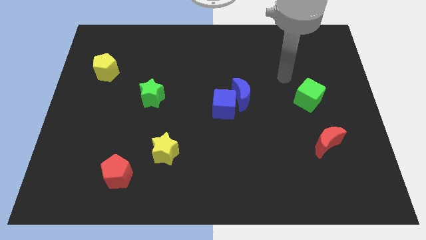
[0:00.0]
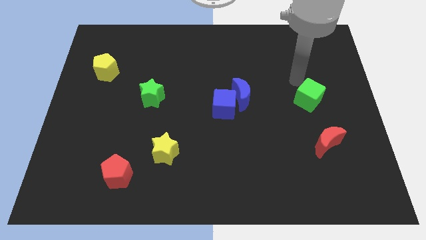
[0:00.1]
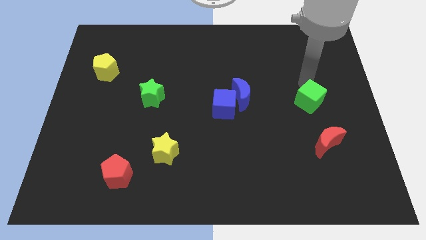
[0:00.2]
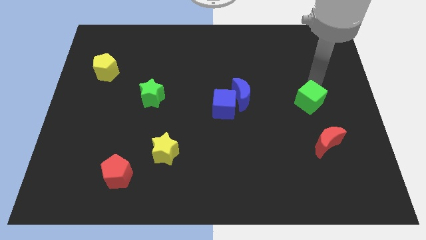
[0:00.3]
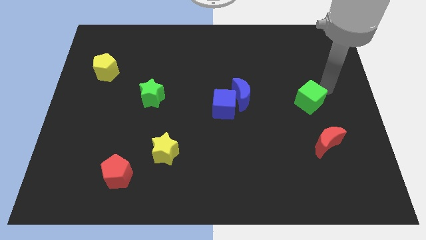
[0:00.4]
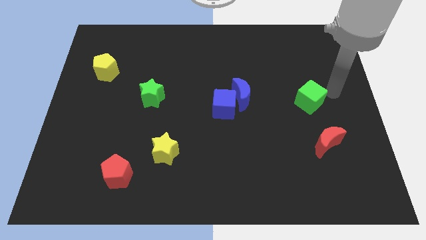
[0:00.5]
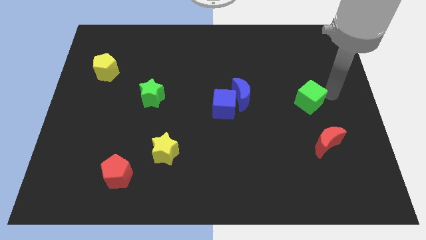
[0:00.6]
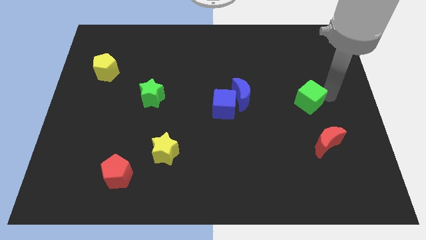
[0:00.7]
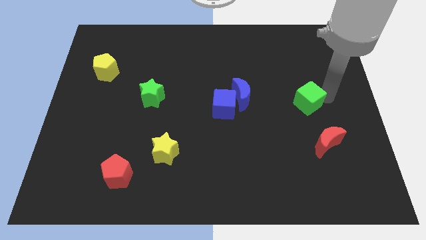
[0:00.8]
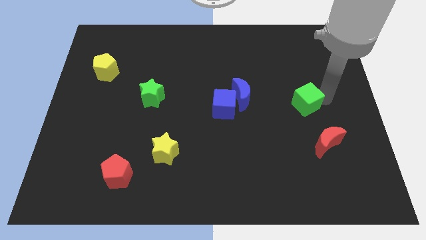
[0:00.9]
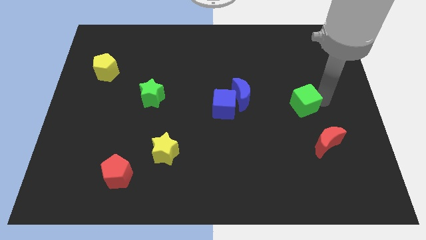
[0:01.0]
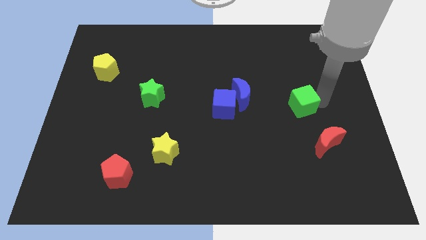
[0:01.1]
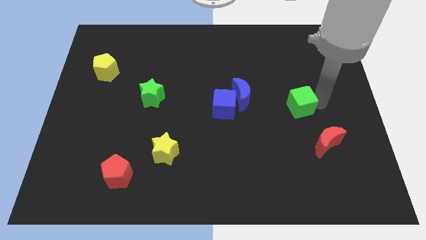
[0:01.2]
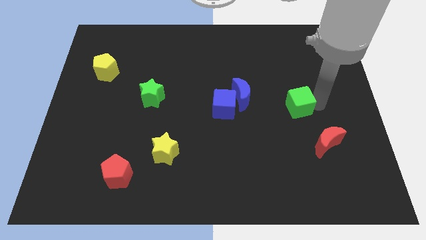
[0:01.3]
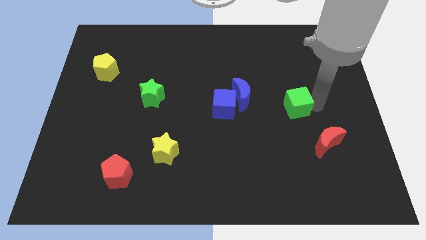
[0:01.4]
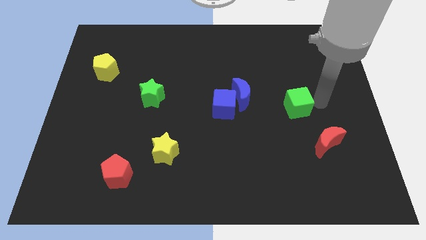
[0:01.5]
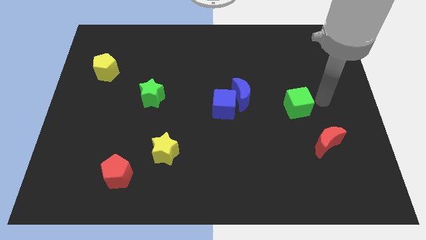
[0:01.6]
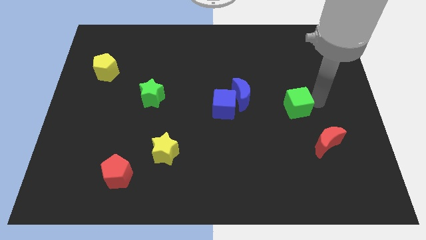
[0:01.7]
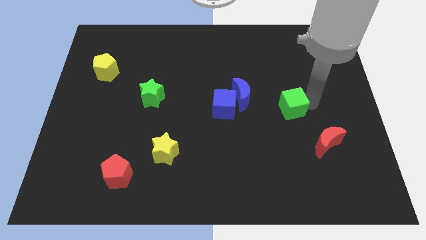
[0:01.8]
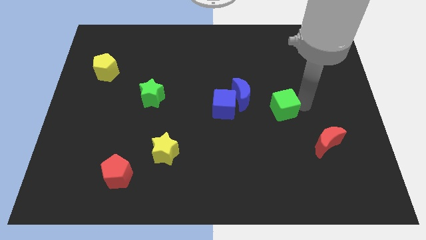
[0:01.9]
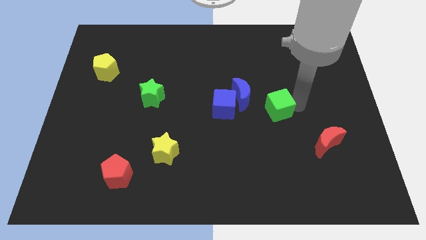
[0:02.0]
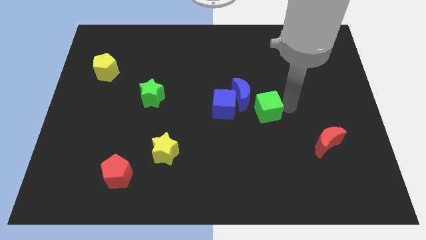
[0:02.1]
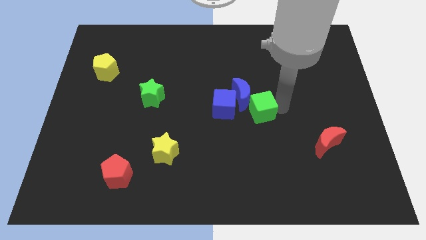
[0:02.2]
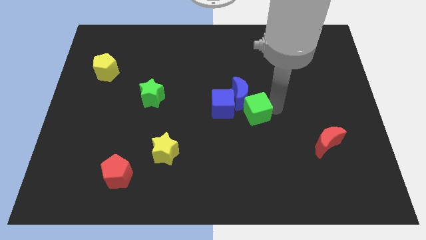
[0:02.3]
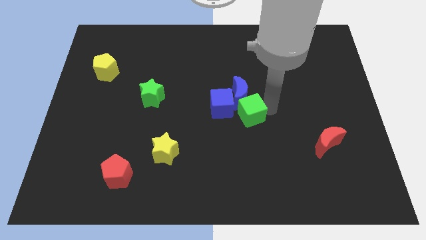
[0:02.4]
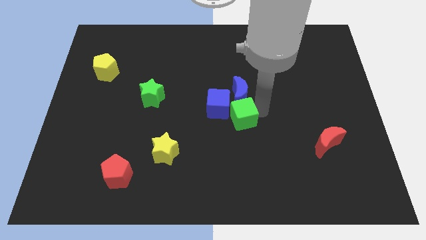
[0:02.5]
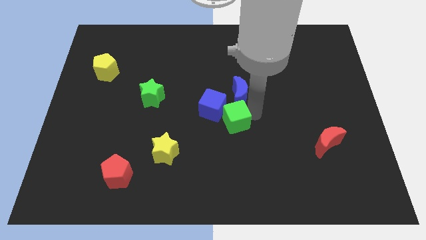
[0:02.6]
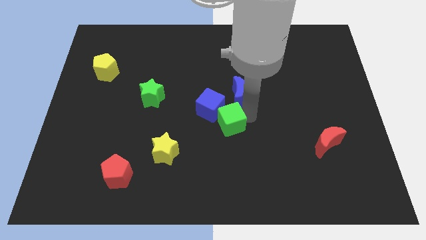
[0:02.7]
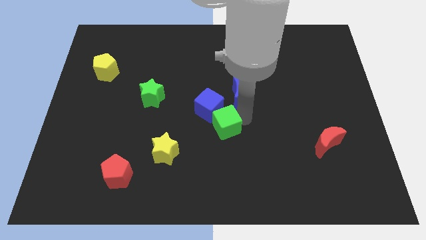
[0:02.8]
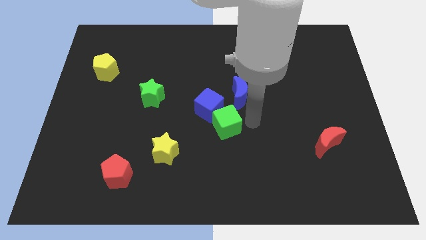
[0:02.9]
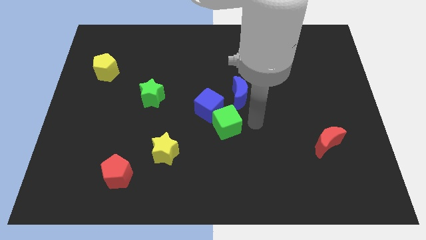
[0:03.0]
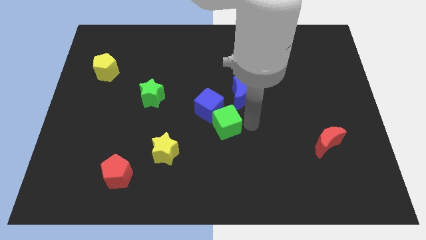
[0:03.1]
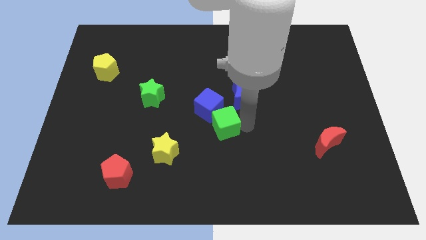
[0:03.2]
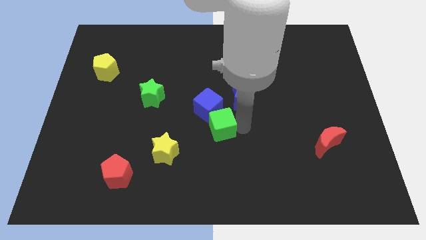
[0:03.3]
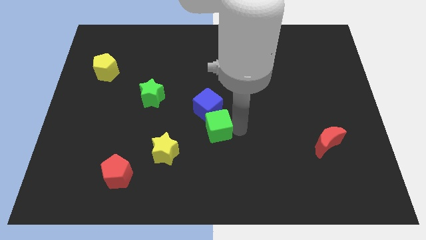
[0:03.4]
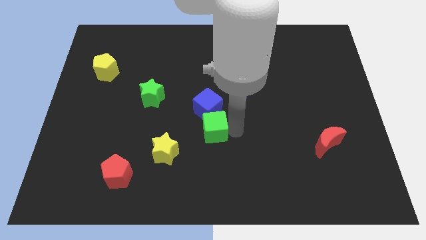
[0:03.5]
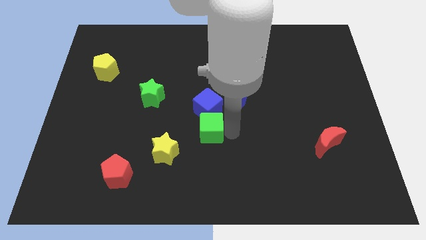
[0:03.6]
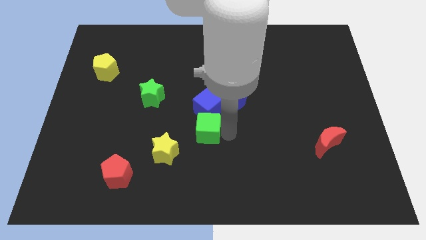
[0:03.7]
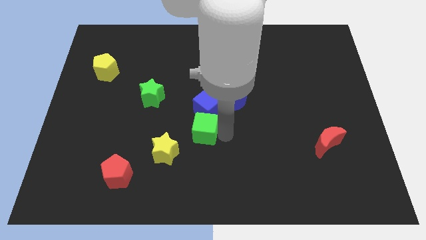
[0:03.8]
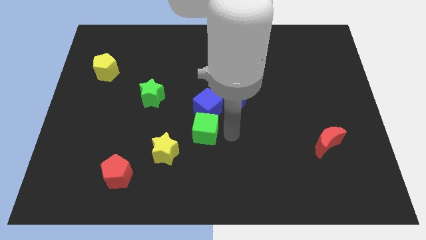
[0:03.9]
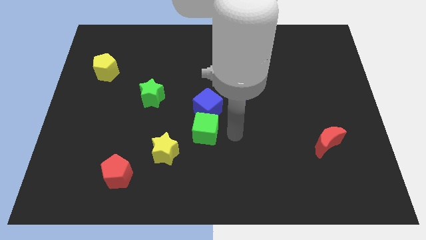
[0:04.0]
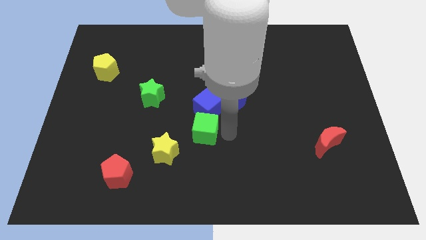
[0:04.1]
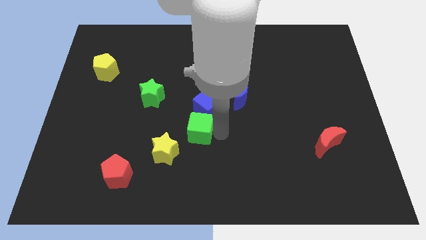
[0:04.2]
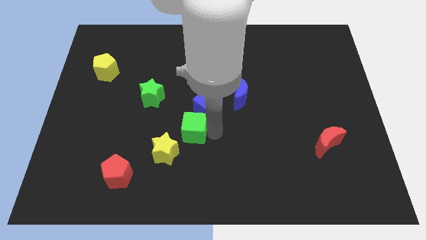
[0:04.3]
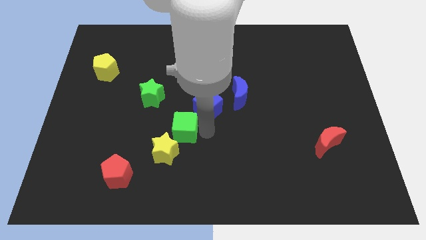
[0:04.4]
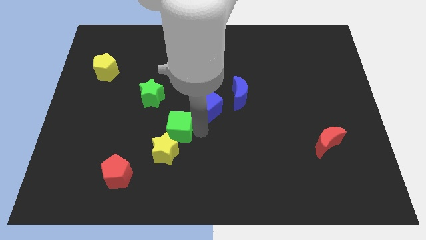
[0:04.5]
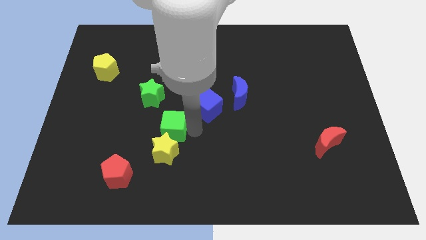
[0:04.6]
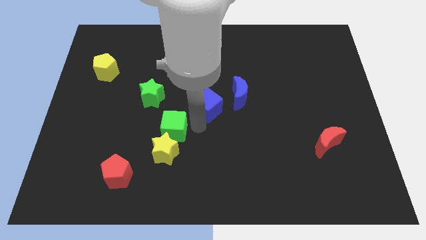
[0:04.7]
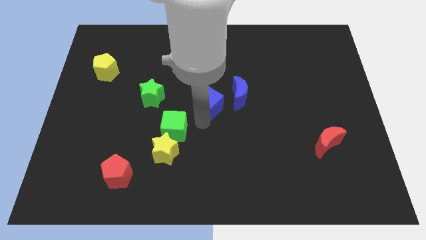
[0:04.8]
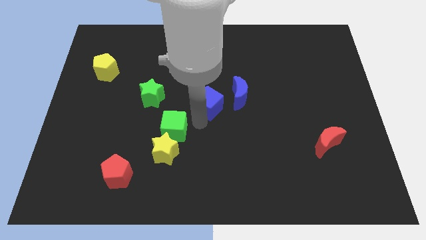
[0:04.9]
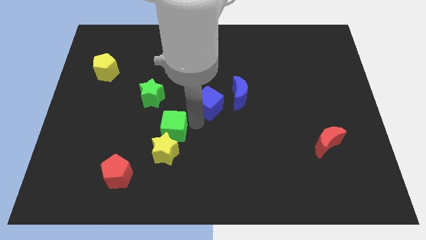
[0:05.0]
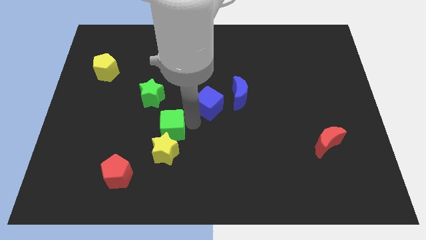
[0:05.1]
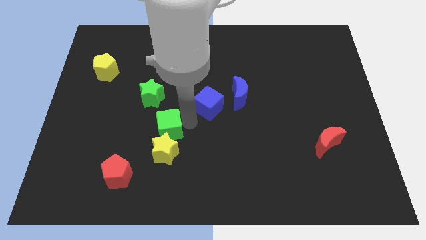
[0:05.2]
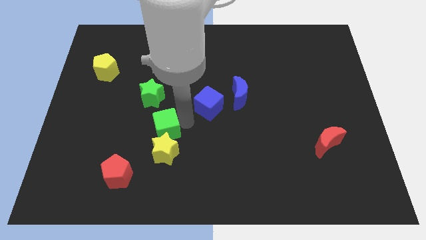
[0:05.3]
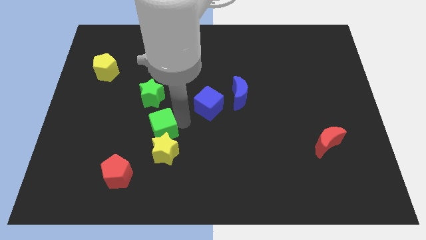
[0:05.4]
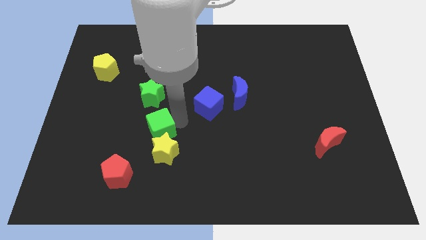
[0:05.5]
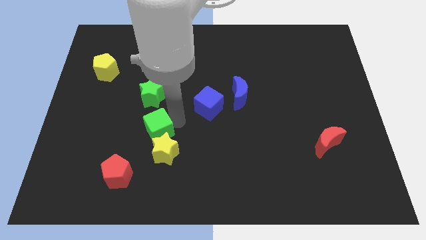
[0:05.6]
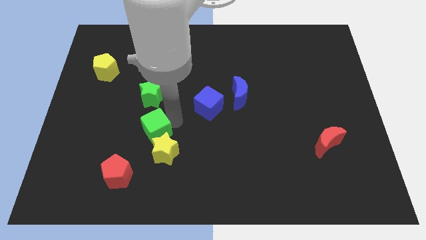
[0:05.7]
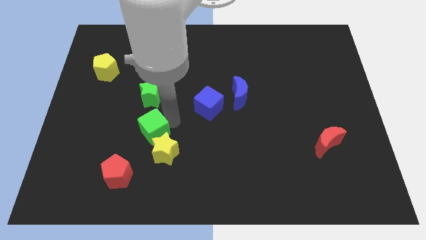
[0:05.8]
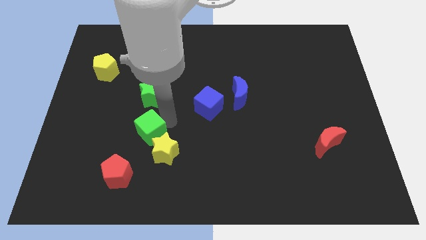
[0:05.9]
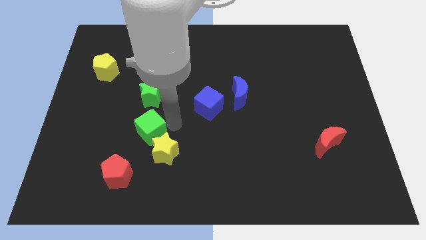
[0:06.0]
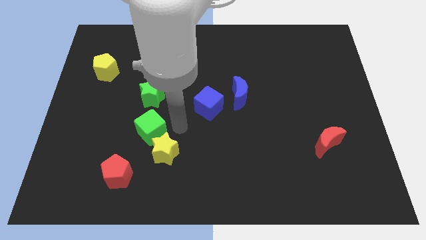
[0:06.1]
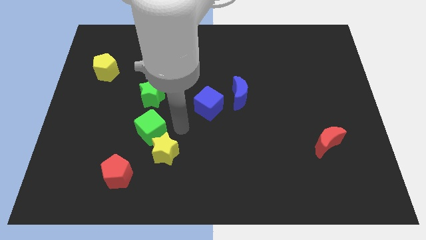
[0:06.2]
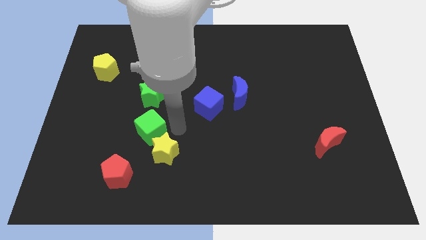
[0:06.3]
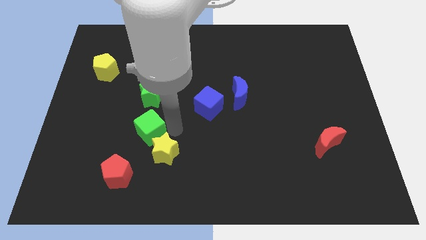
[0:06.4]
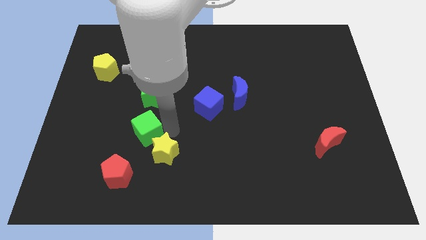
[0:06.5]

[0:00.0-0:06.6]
slide the green cube to the top side of the red pentagon

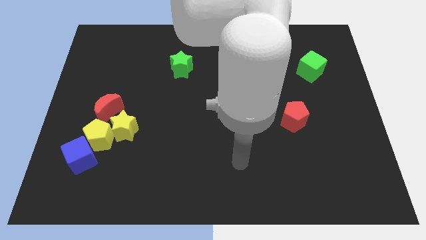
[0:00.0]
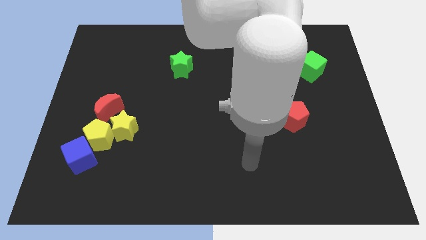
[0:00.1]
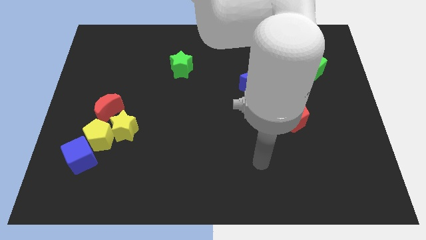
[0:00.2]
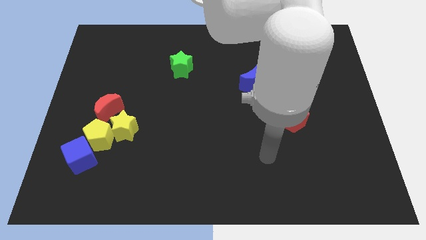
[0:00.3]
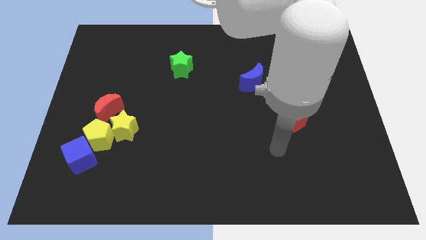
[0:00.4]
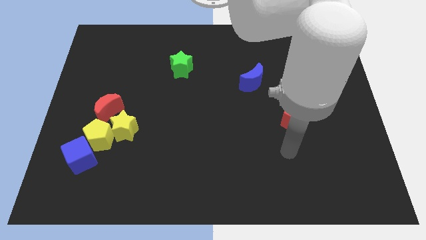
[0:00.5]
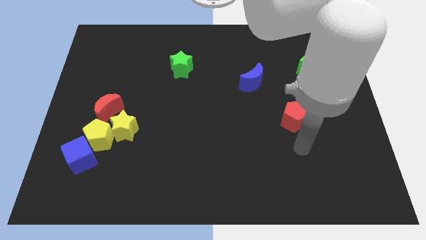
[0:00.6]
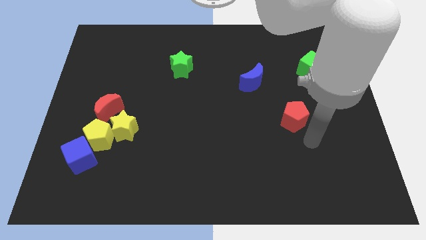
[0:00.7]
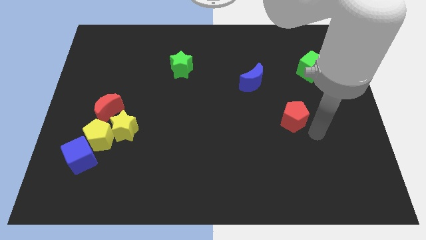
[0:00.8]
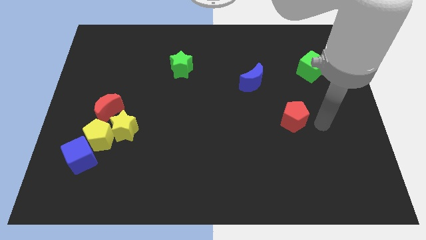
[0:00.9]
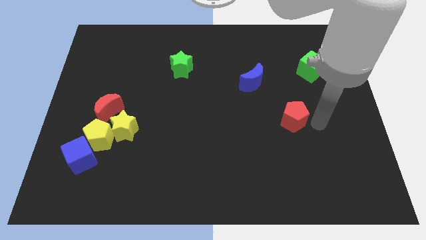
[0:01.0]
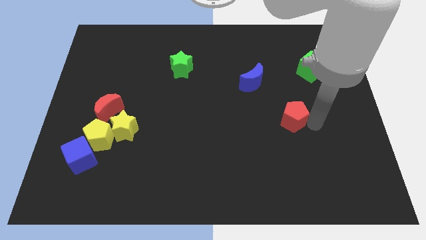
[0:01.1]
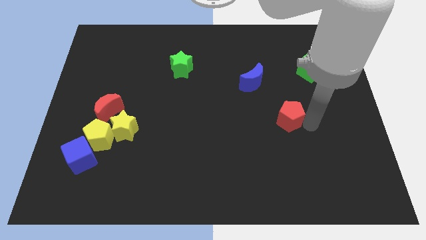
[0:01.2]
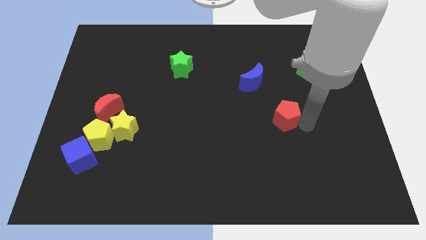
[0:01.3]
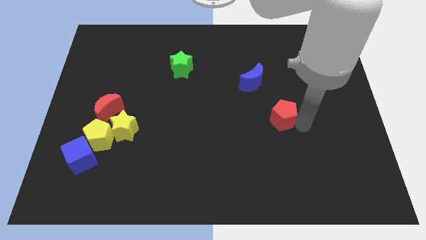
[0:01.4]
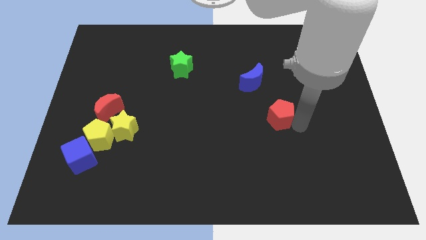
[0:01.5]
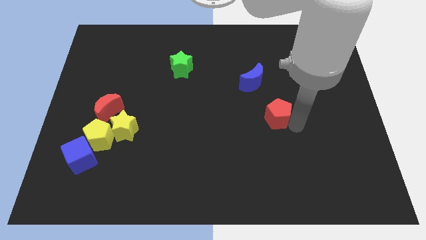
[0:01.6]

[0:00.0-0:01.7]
put the red pentagon below the blue moon
